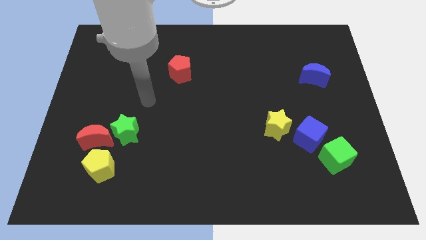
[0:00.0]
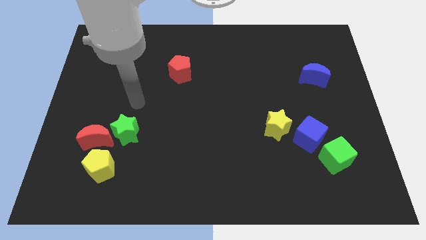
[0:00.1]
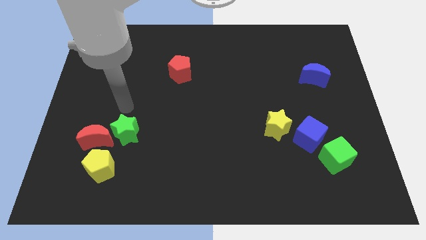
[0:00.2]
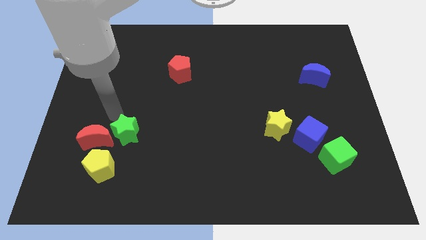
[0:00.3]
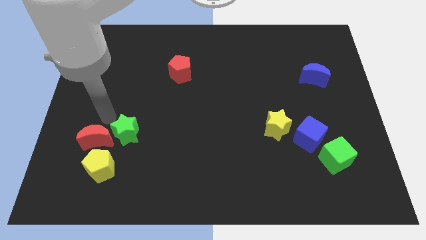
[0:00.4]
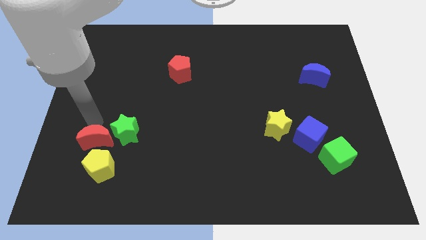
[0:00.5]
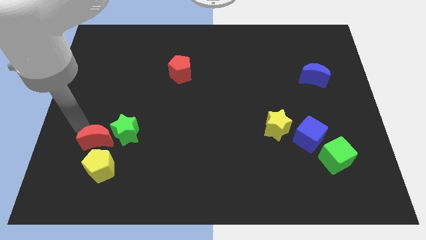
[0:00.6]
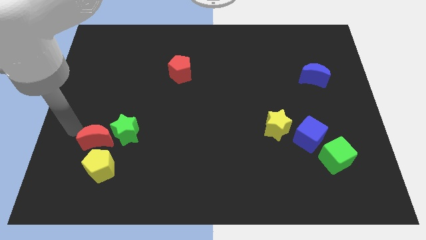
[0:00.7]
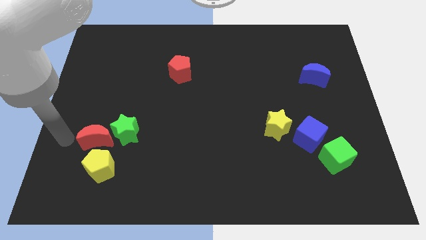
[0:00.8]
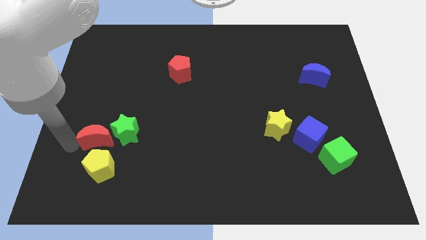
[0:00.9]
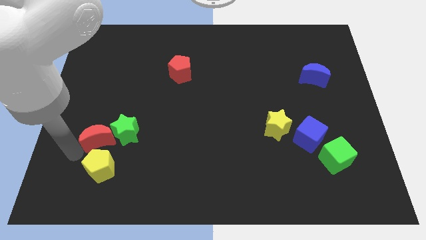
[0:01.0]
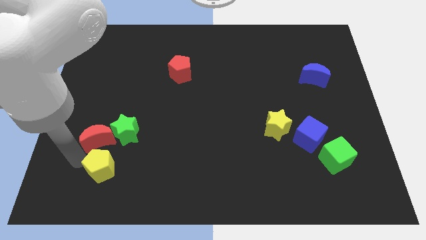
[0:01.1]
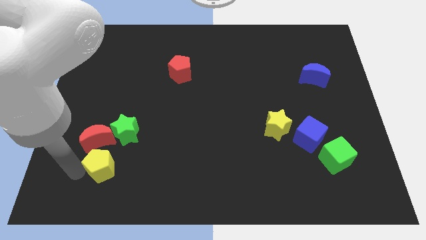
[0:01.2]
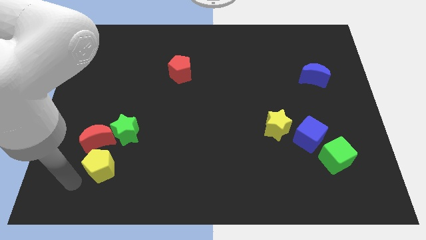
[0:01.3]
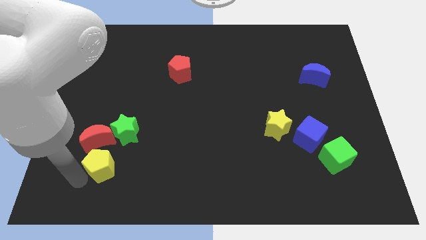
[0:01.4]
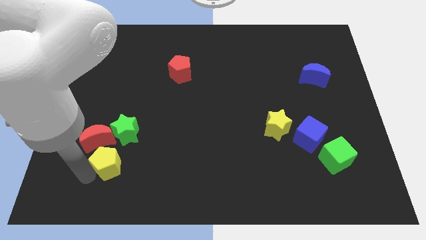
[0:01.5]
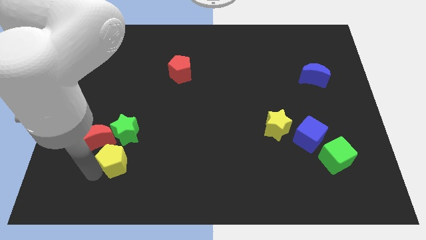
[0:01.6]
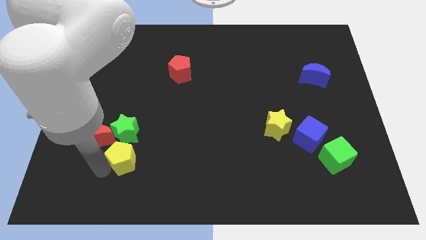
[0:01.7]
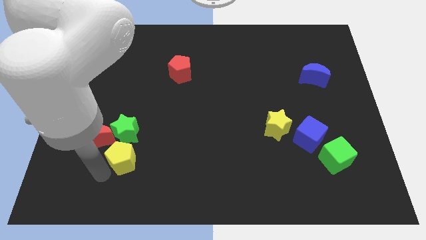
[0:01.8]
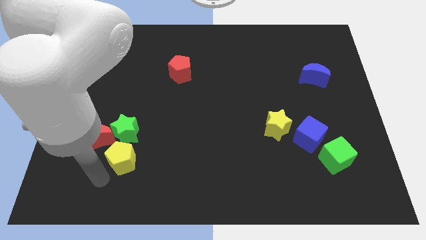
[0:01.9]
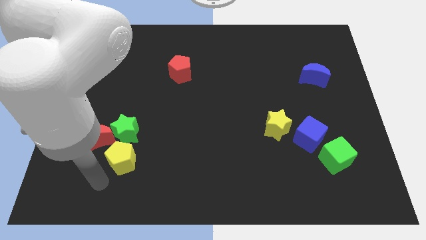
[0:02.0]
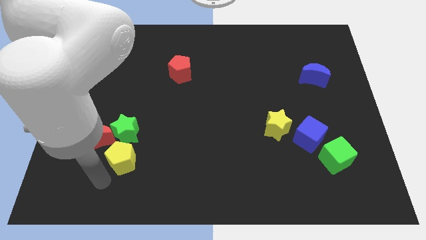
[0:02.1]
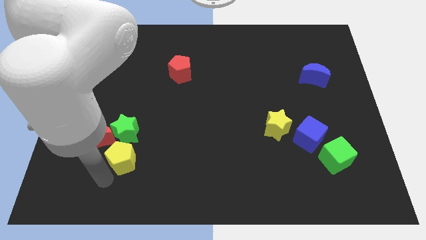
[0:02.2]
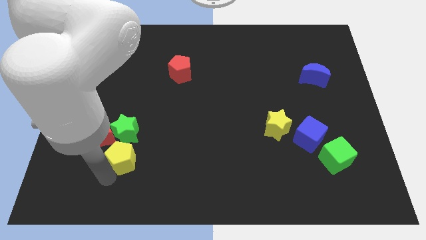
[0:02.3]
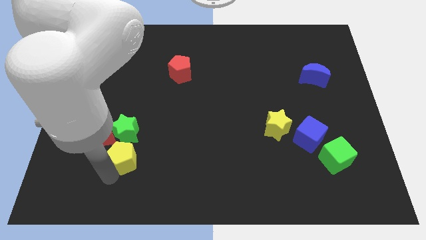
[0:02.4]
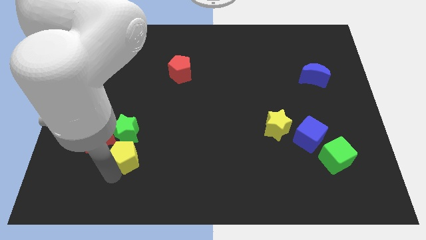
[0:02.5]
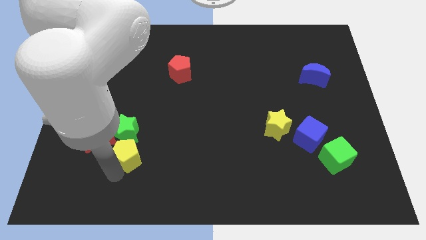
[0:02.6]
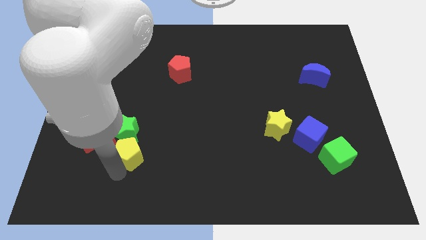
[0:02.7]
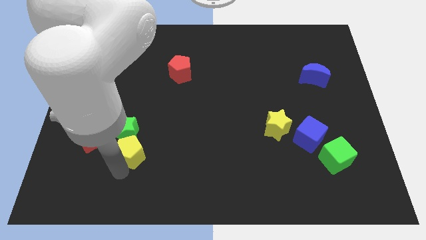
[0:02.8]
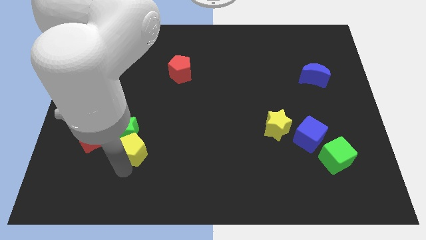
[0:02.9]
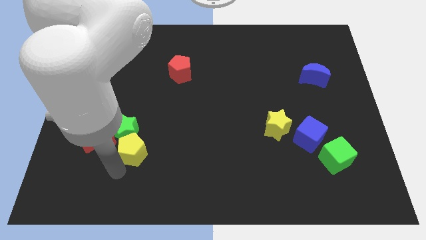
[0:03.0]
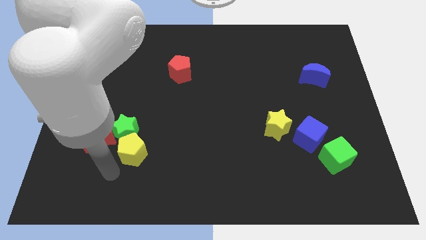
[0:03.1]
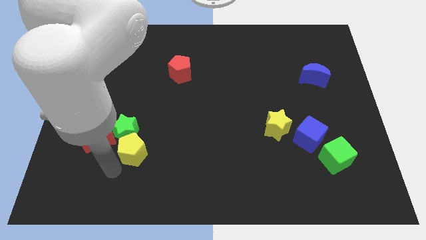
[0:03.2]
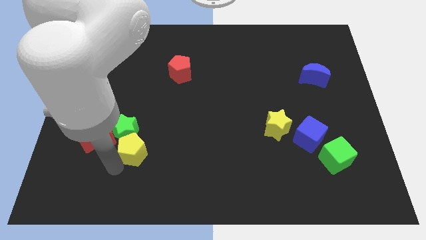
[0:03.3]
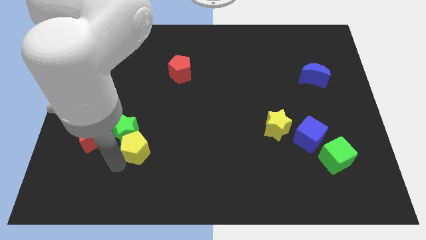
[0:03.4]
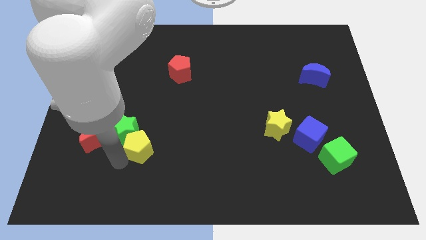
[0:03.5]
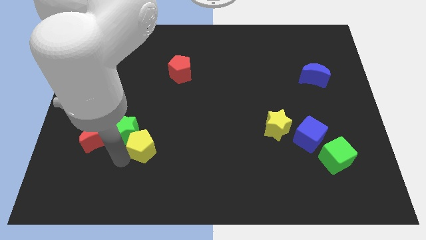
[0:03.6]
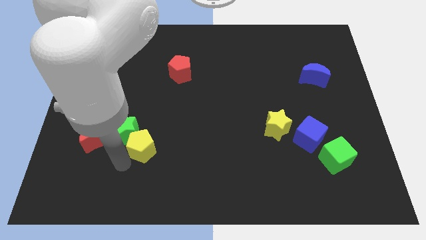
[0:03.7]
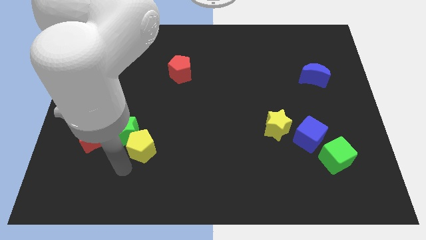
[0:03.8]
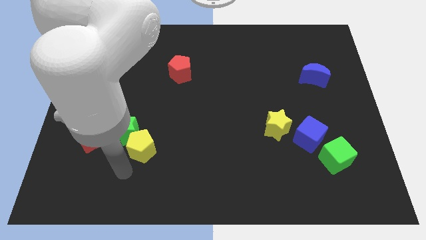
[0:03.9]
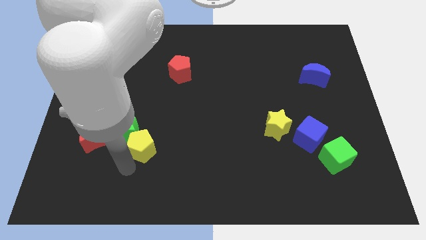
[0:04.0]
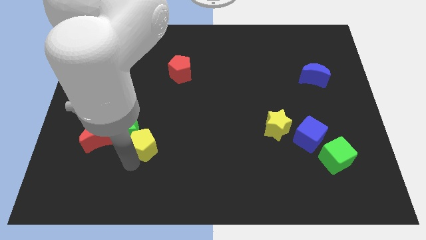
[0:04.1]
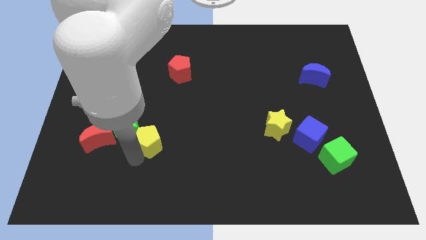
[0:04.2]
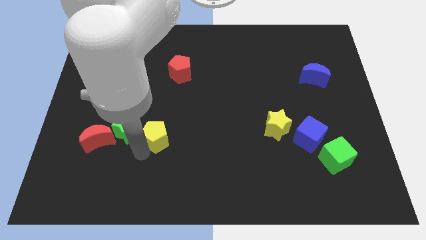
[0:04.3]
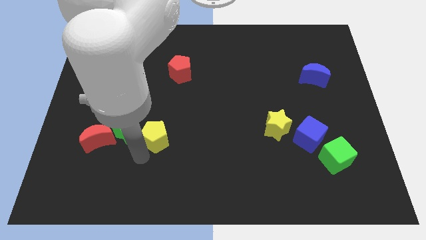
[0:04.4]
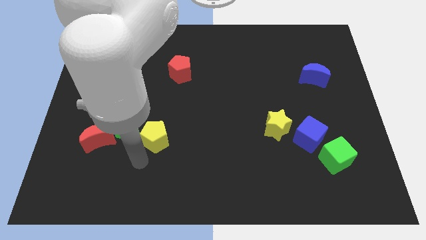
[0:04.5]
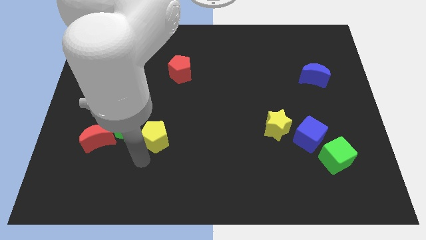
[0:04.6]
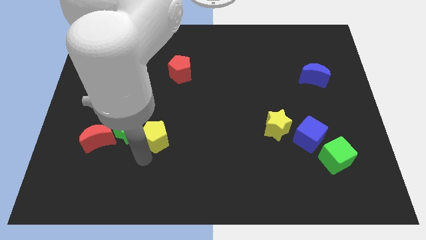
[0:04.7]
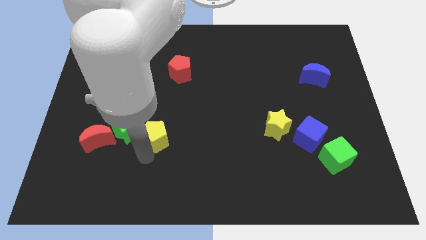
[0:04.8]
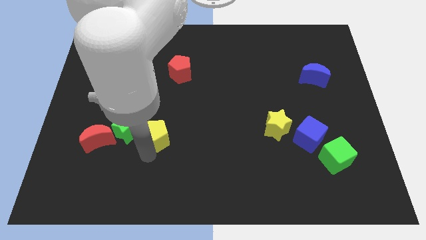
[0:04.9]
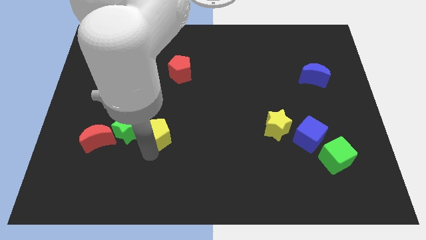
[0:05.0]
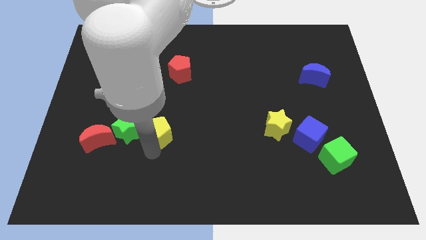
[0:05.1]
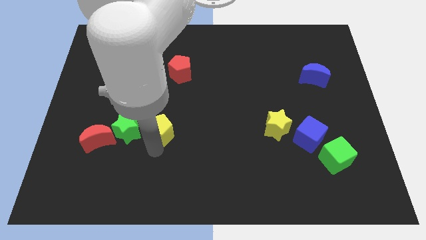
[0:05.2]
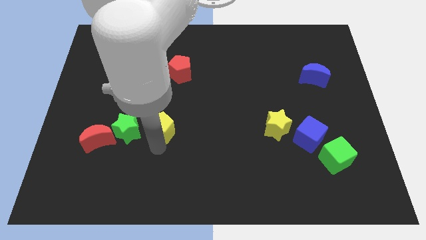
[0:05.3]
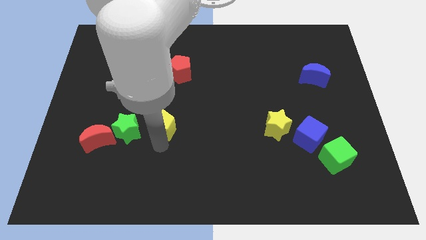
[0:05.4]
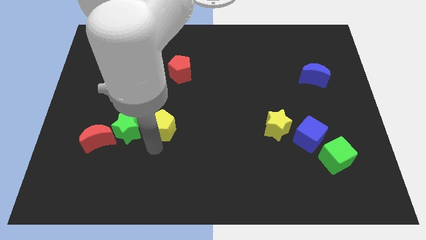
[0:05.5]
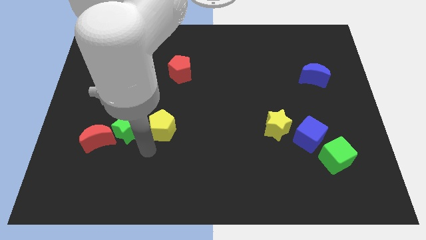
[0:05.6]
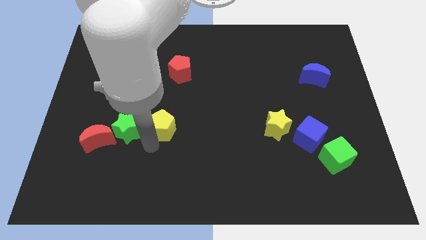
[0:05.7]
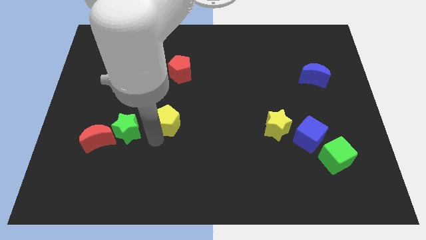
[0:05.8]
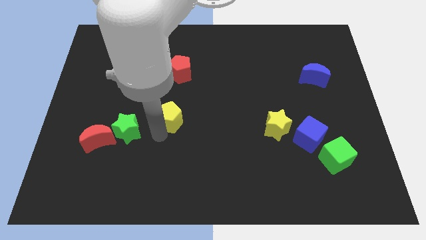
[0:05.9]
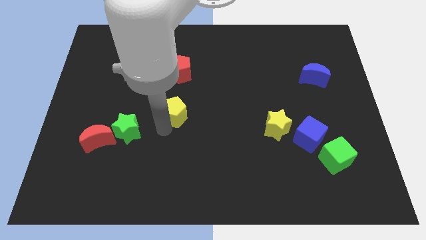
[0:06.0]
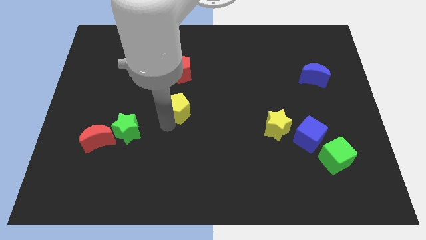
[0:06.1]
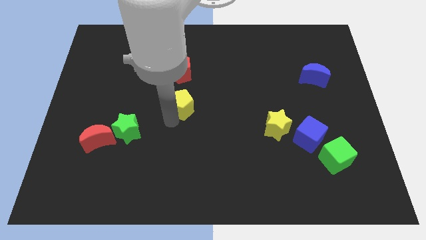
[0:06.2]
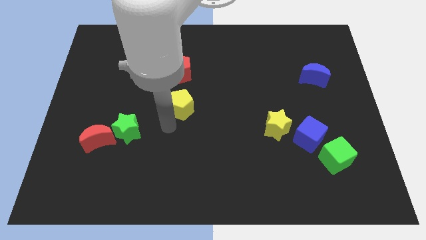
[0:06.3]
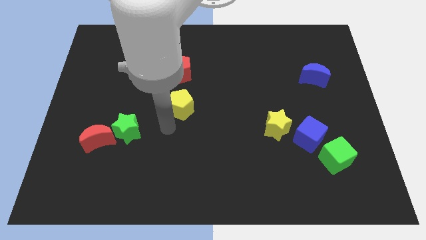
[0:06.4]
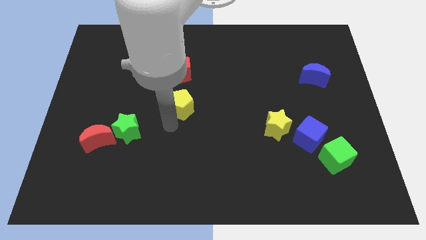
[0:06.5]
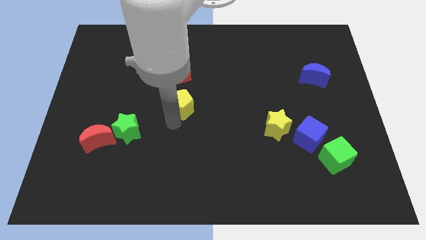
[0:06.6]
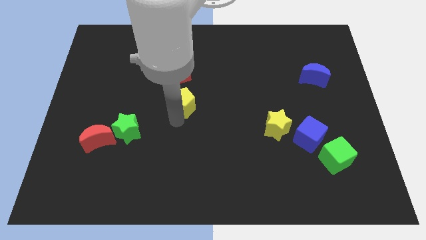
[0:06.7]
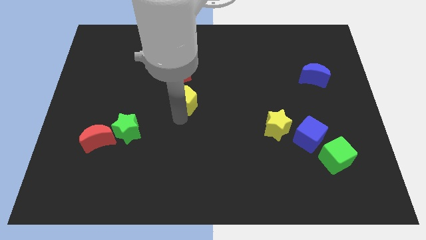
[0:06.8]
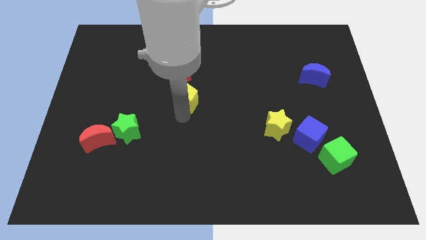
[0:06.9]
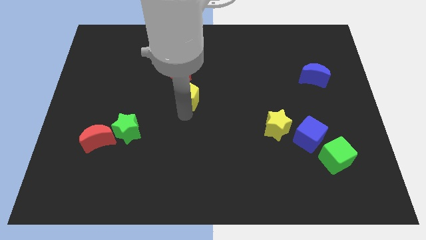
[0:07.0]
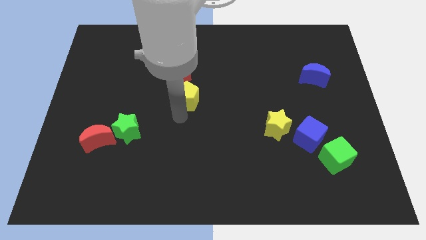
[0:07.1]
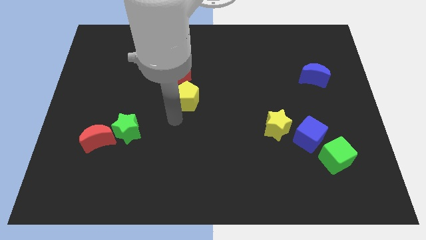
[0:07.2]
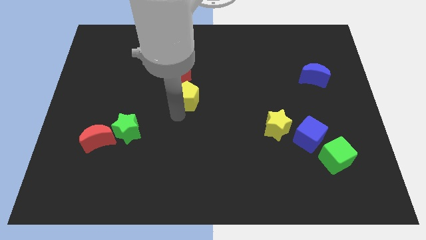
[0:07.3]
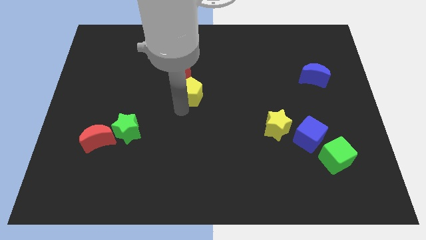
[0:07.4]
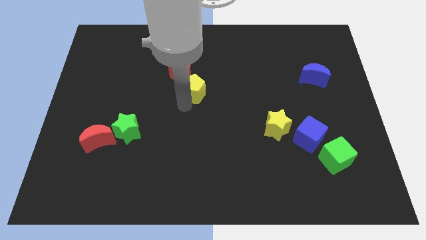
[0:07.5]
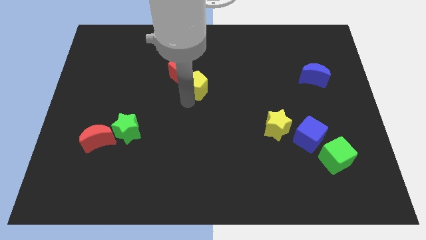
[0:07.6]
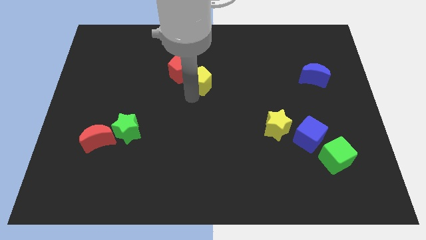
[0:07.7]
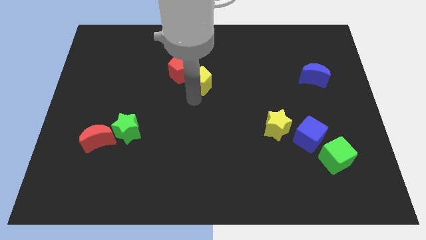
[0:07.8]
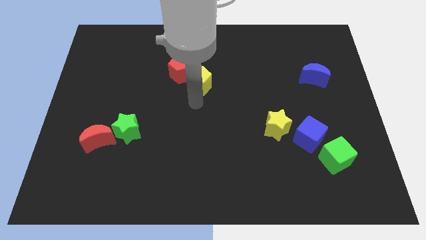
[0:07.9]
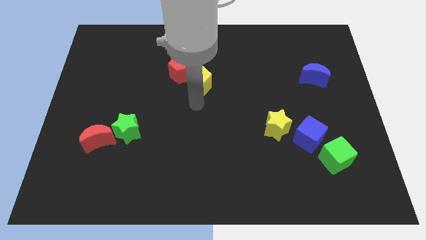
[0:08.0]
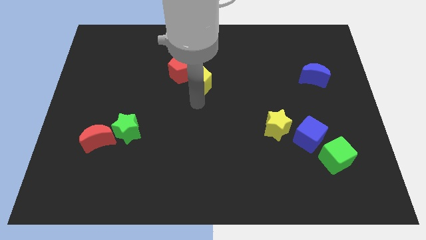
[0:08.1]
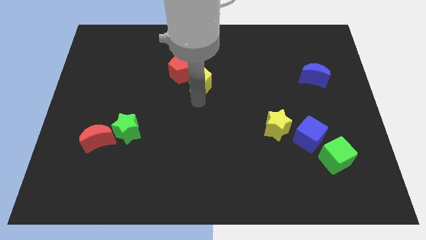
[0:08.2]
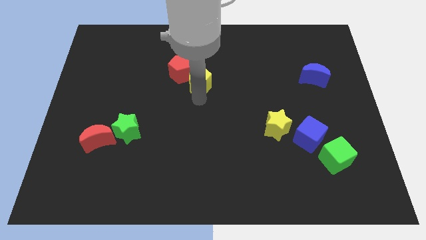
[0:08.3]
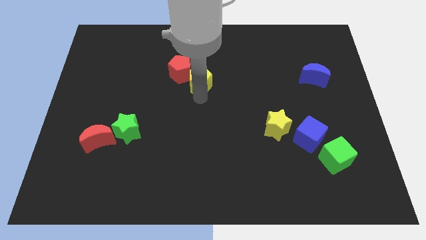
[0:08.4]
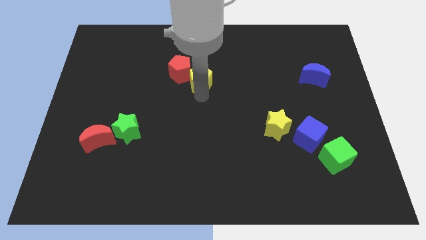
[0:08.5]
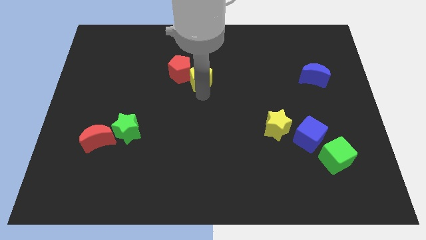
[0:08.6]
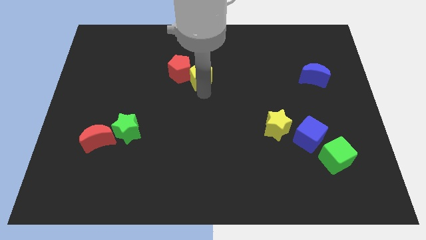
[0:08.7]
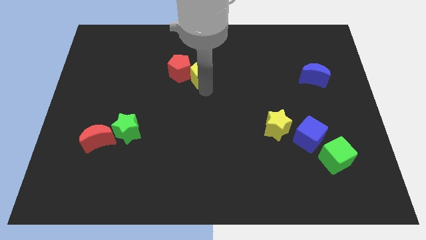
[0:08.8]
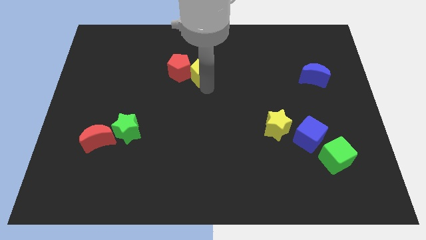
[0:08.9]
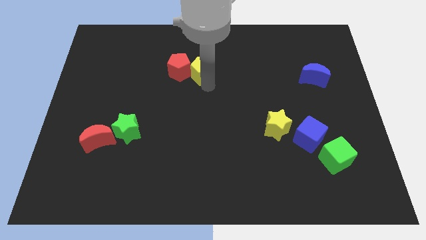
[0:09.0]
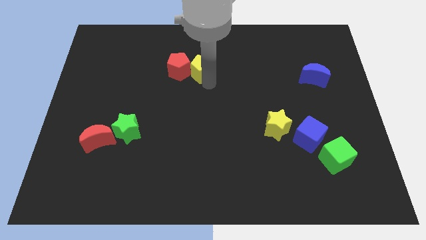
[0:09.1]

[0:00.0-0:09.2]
slide the yellow pentagon diagonally up and to the right of the red pentagon
